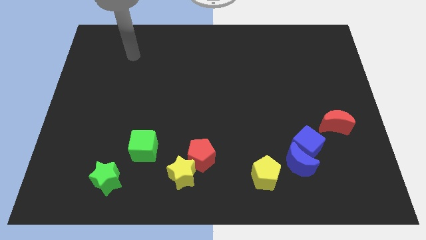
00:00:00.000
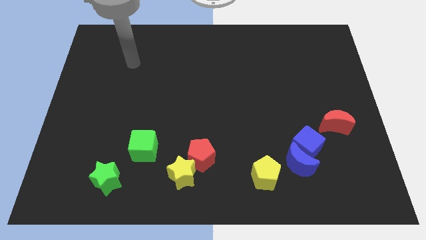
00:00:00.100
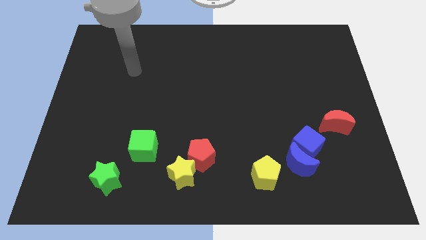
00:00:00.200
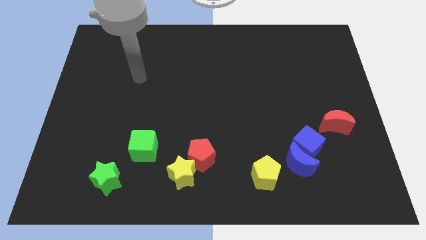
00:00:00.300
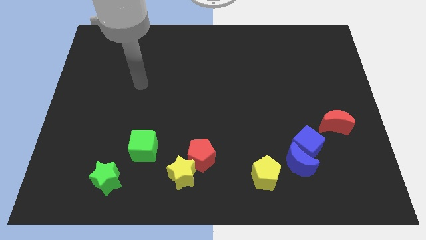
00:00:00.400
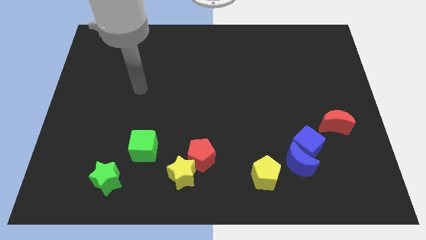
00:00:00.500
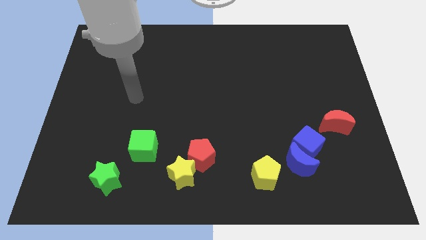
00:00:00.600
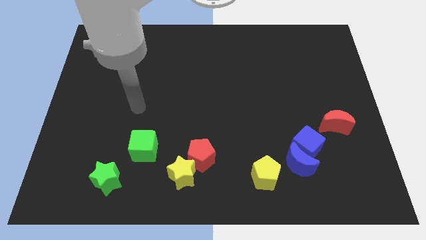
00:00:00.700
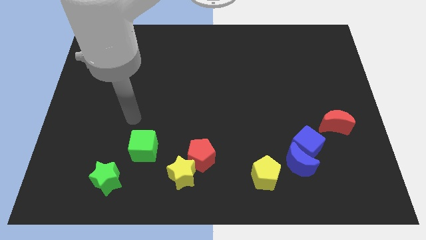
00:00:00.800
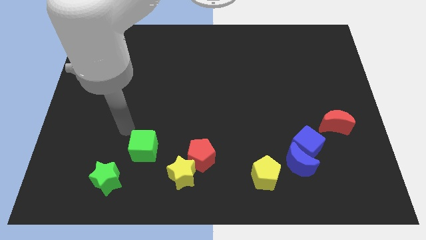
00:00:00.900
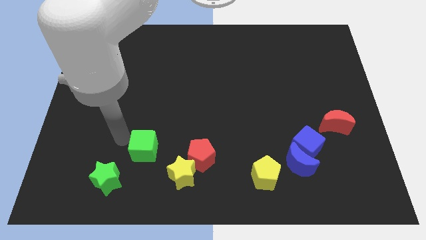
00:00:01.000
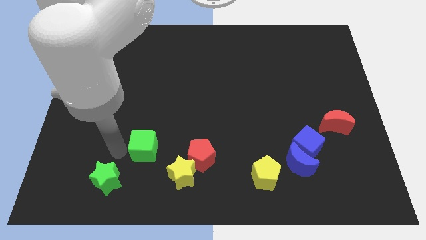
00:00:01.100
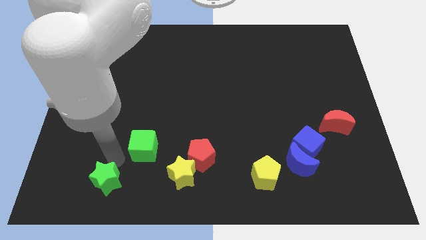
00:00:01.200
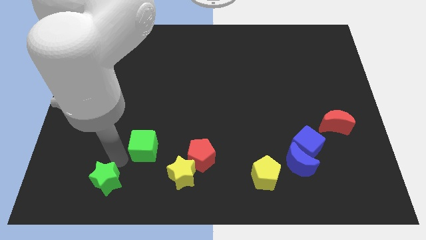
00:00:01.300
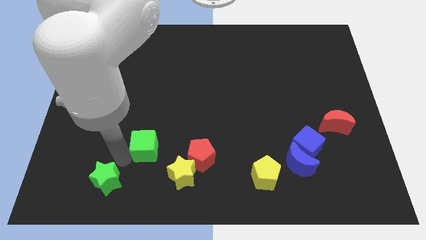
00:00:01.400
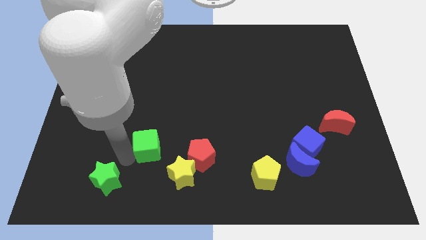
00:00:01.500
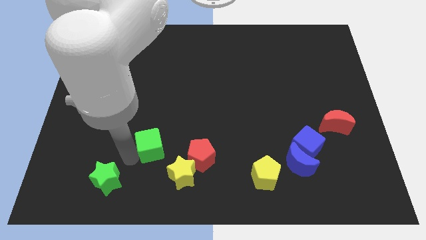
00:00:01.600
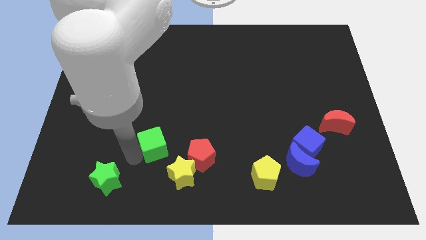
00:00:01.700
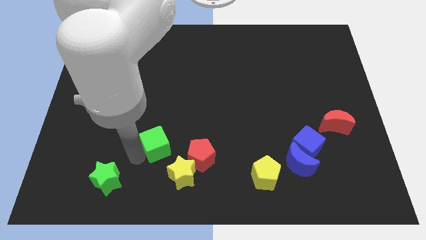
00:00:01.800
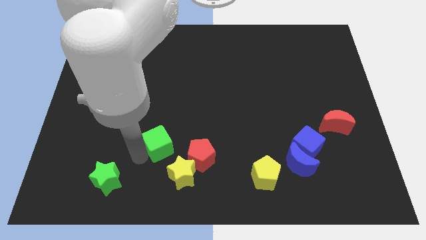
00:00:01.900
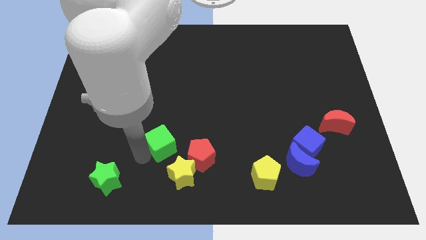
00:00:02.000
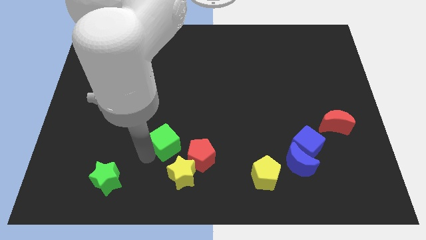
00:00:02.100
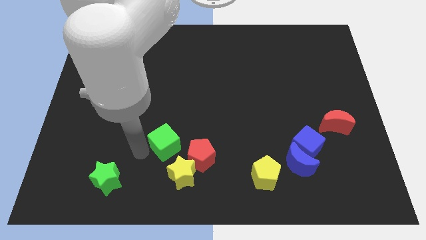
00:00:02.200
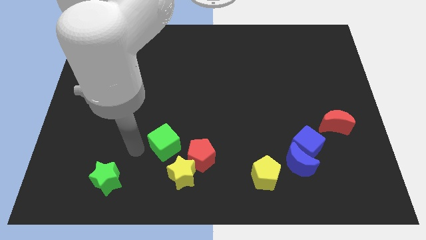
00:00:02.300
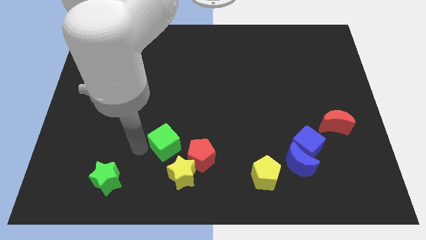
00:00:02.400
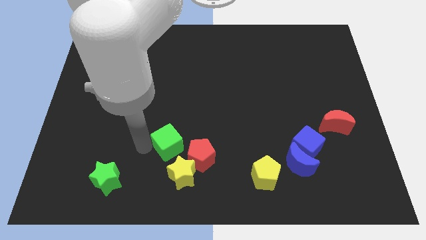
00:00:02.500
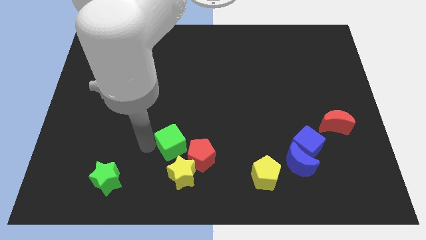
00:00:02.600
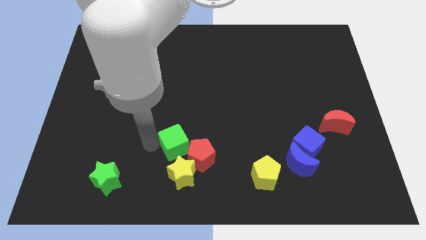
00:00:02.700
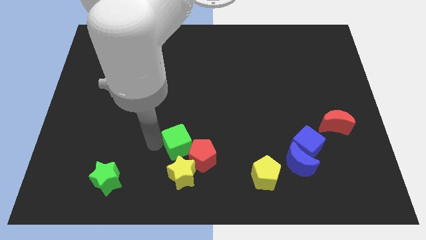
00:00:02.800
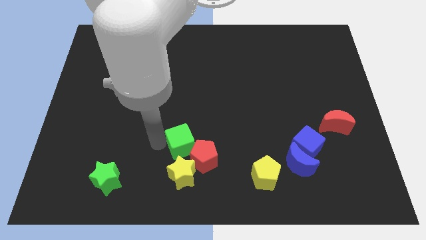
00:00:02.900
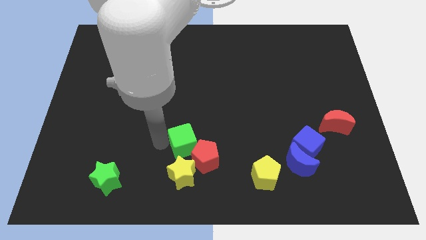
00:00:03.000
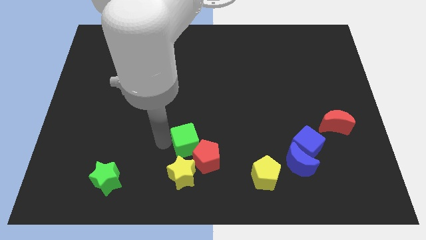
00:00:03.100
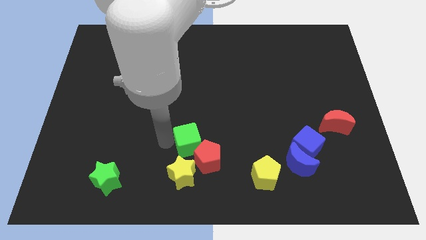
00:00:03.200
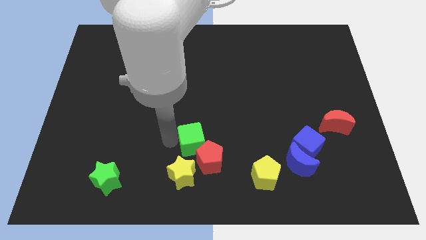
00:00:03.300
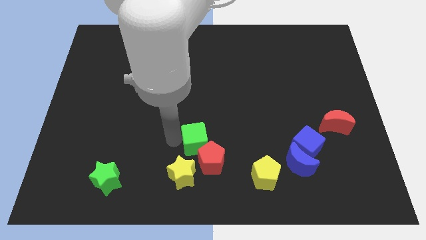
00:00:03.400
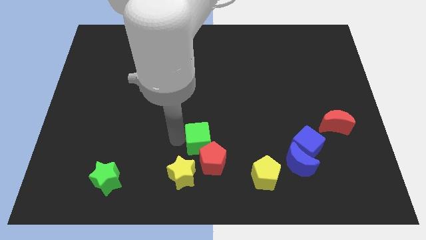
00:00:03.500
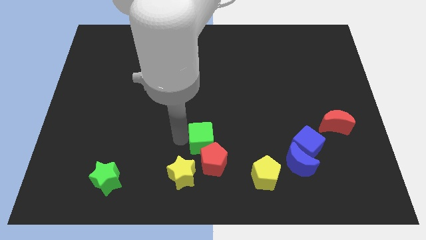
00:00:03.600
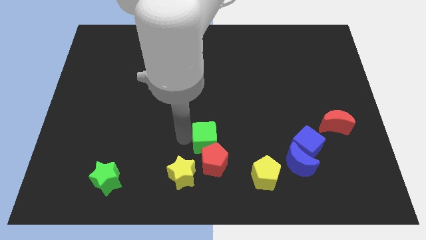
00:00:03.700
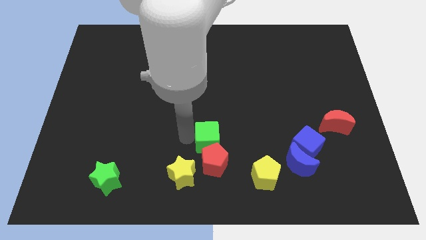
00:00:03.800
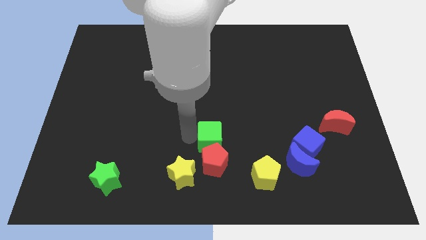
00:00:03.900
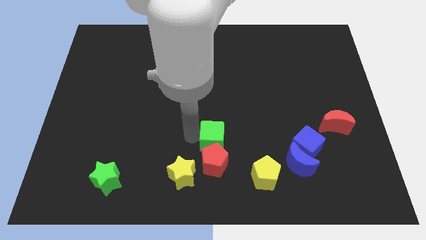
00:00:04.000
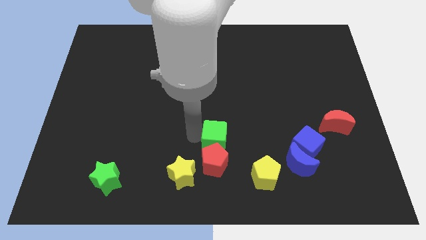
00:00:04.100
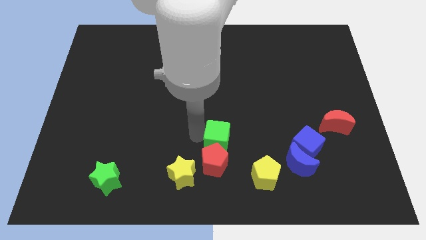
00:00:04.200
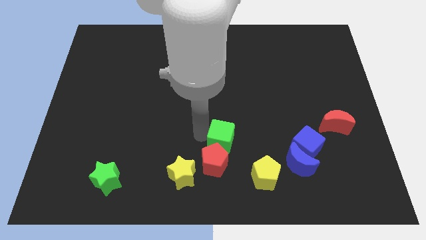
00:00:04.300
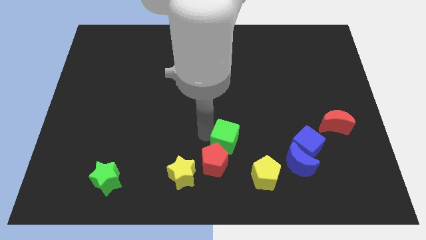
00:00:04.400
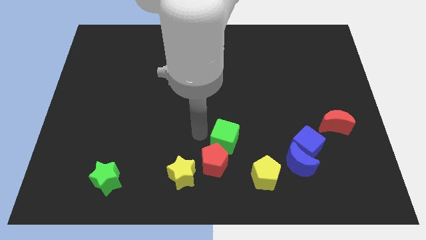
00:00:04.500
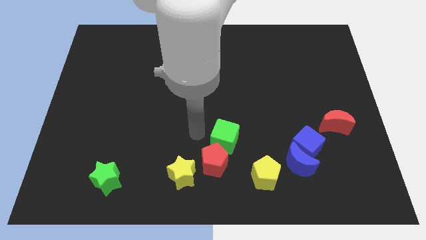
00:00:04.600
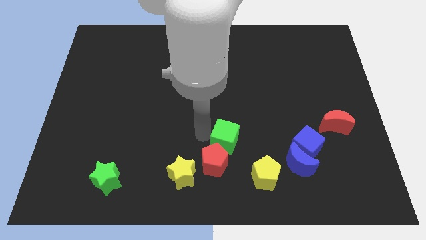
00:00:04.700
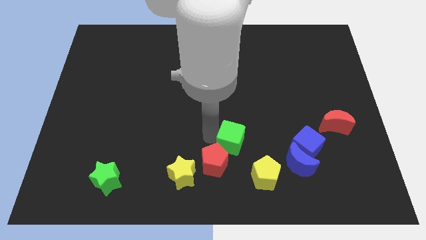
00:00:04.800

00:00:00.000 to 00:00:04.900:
push the green cube just left of the blue cube

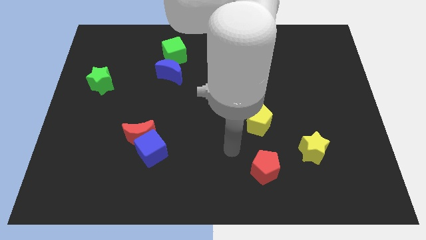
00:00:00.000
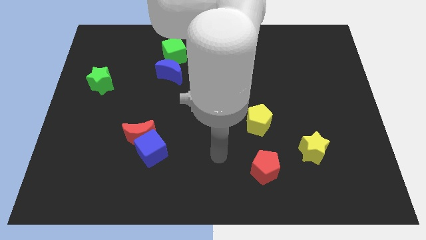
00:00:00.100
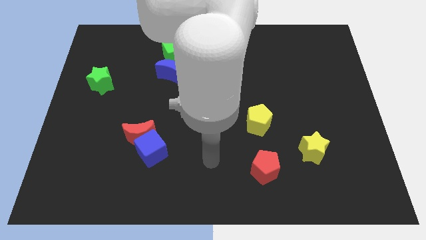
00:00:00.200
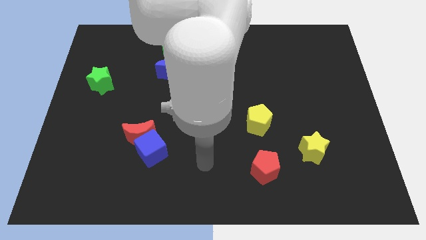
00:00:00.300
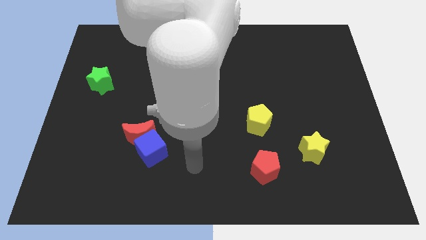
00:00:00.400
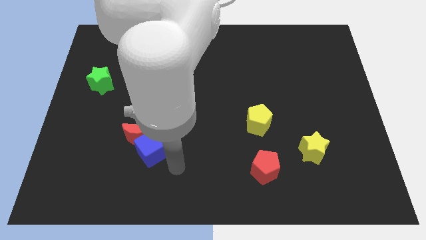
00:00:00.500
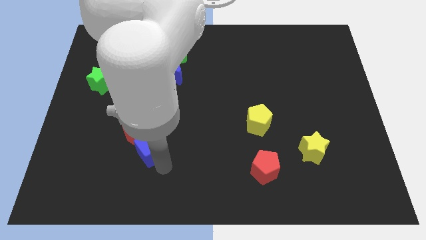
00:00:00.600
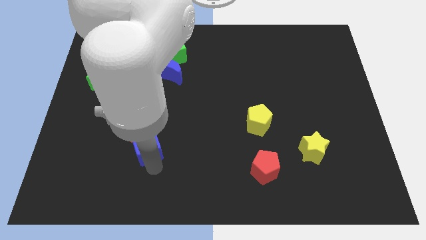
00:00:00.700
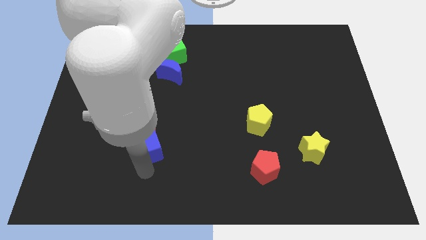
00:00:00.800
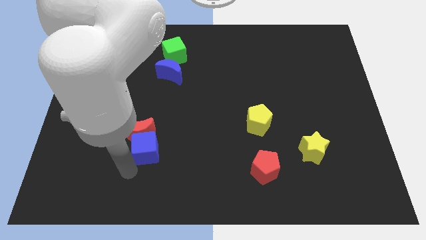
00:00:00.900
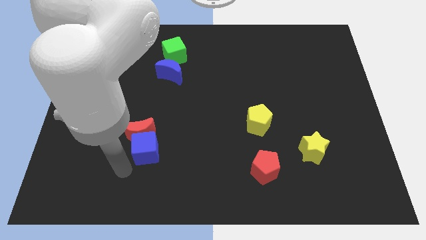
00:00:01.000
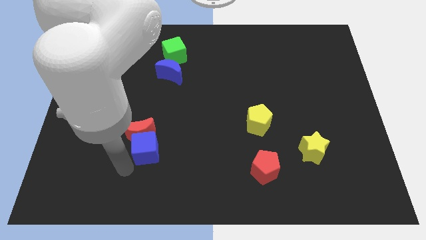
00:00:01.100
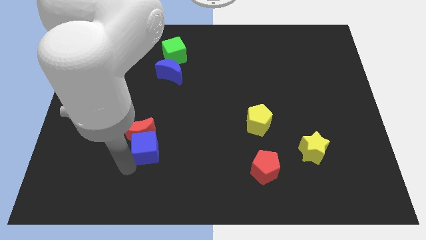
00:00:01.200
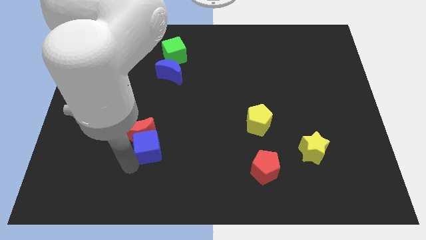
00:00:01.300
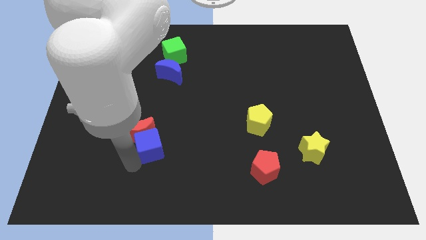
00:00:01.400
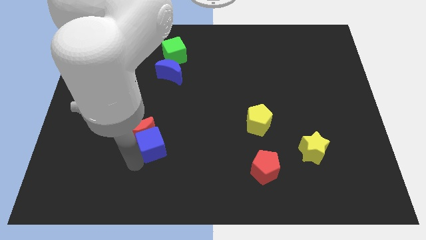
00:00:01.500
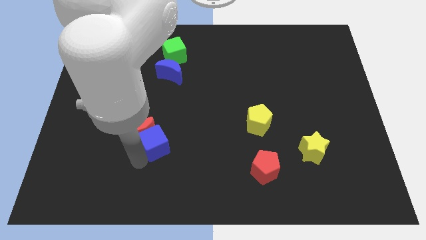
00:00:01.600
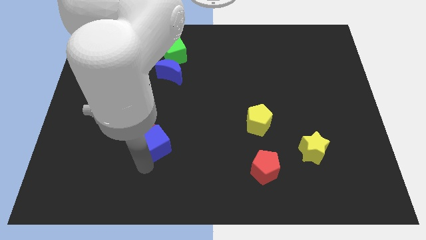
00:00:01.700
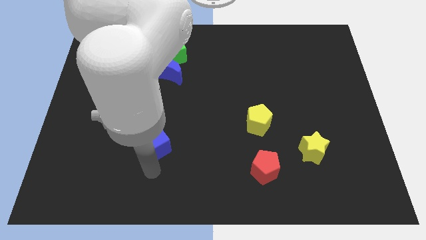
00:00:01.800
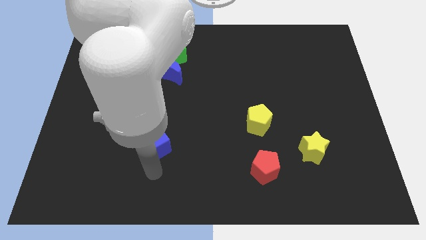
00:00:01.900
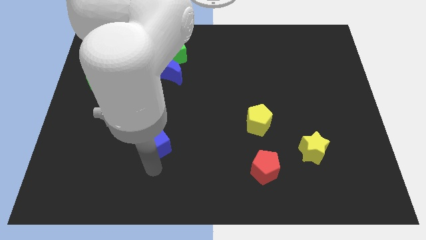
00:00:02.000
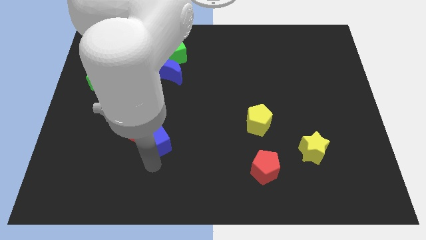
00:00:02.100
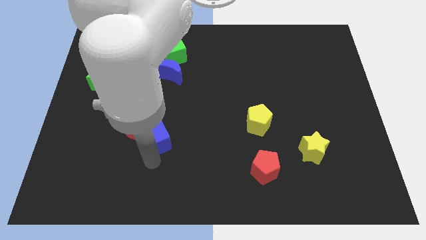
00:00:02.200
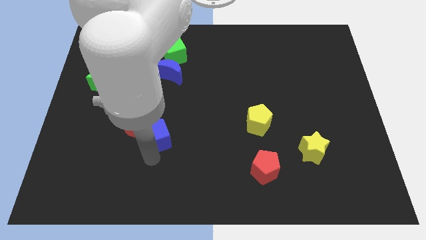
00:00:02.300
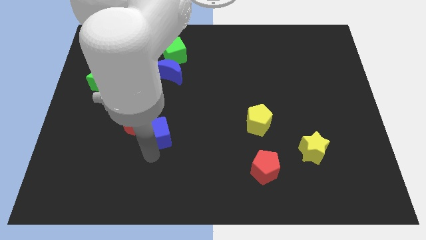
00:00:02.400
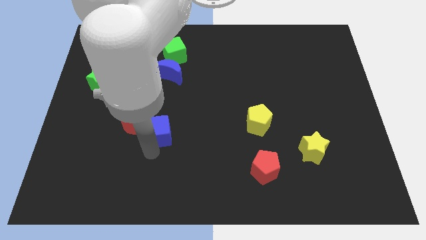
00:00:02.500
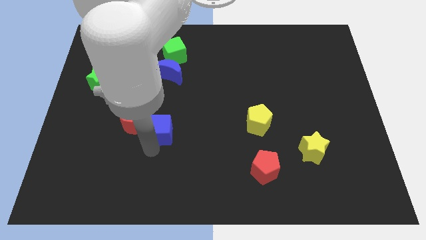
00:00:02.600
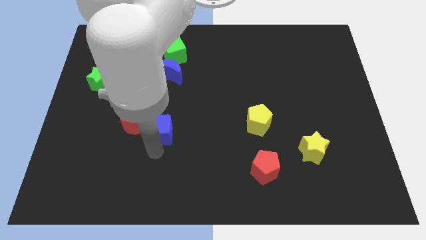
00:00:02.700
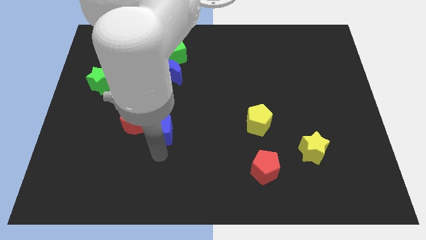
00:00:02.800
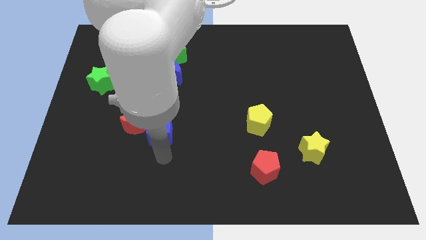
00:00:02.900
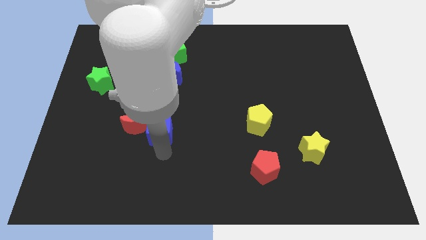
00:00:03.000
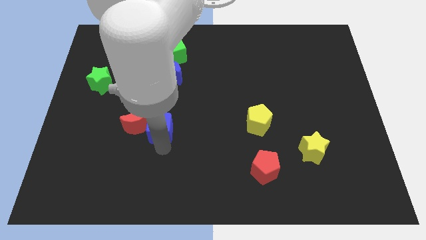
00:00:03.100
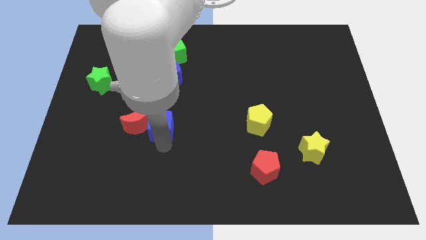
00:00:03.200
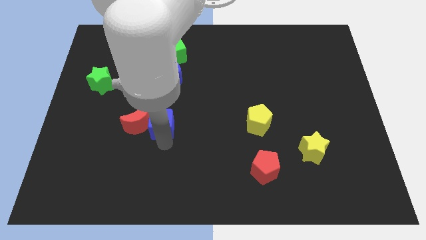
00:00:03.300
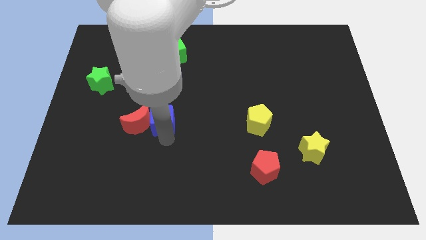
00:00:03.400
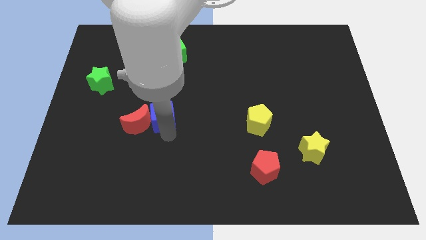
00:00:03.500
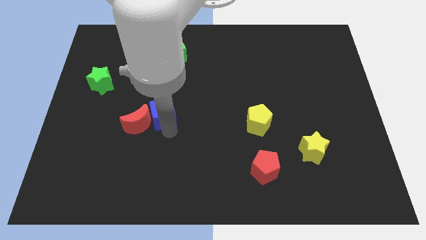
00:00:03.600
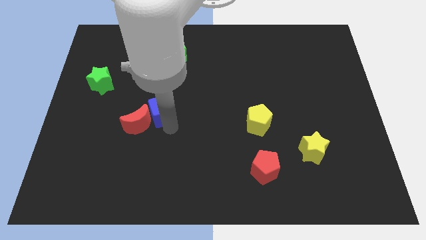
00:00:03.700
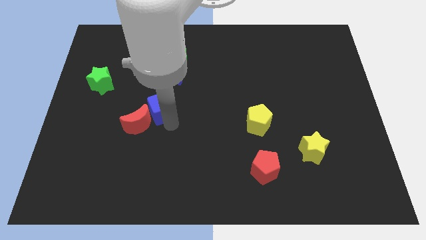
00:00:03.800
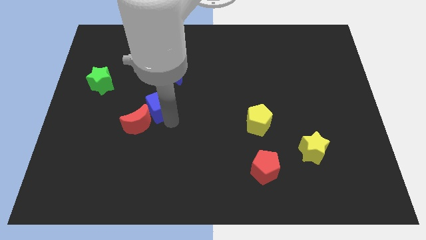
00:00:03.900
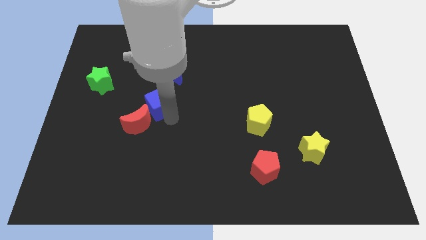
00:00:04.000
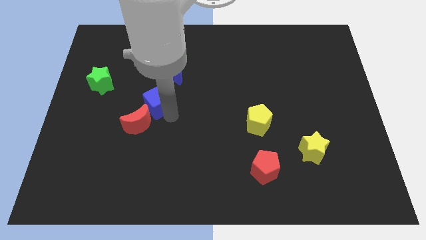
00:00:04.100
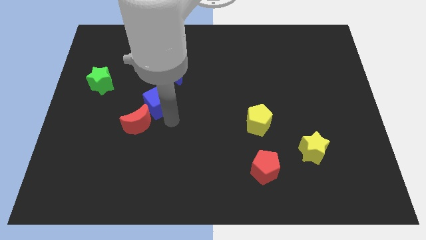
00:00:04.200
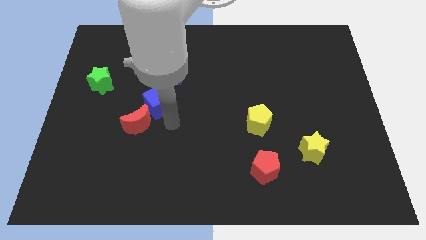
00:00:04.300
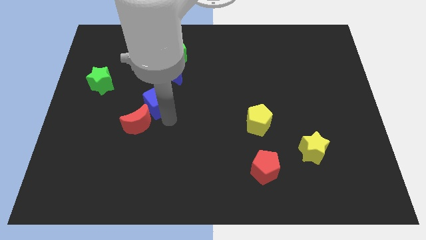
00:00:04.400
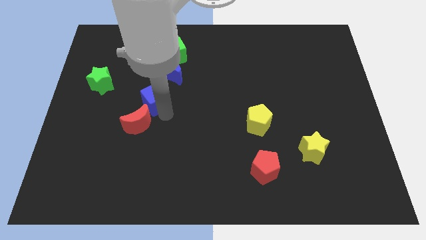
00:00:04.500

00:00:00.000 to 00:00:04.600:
put the blue cube to the bottom left side of the blue moon
